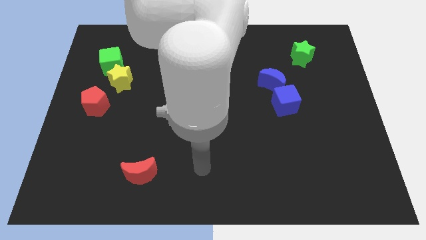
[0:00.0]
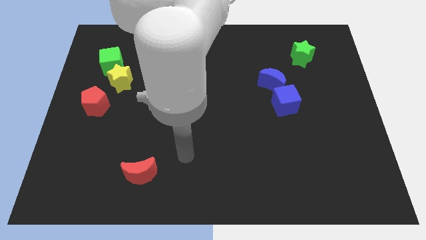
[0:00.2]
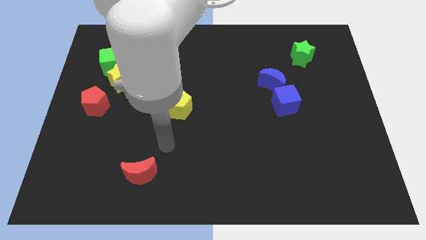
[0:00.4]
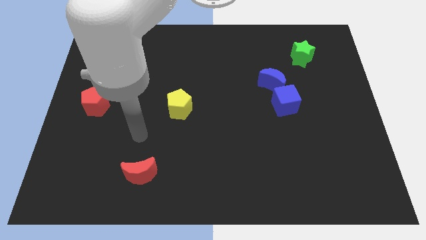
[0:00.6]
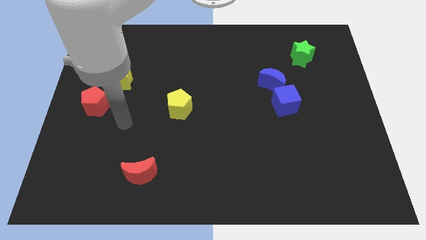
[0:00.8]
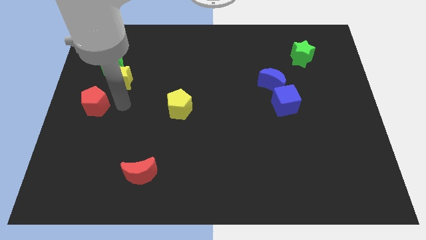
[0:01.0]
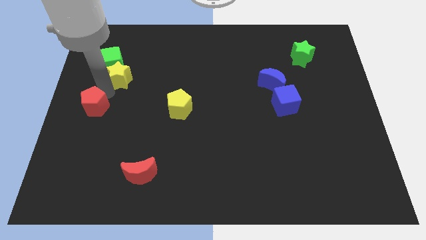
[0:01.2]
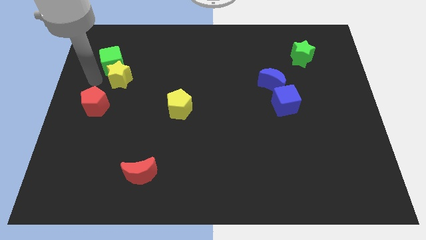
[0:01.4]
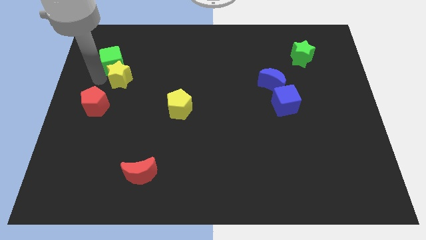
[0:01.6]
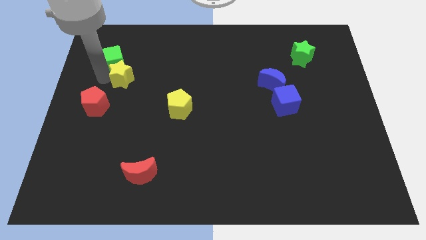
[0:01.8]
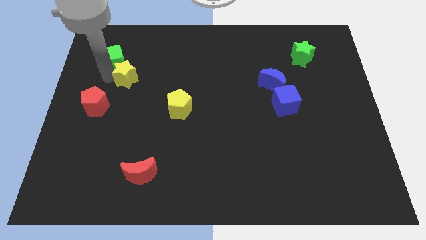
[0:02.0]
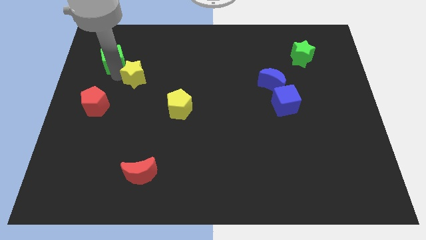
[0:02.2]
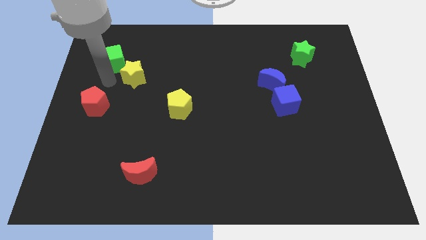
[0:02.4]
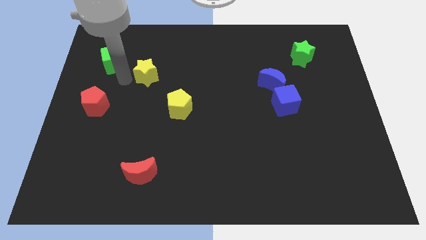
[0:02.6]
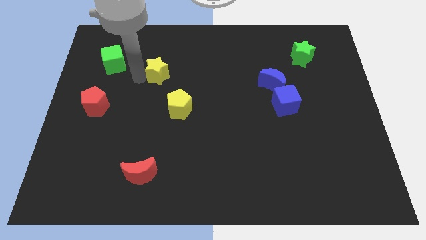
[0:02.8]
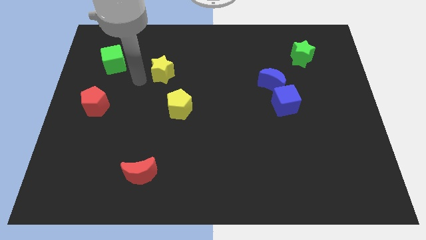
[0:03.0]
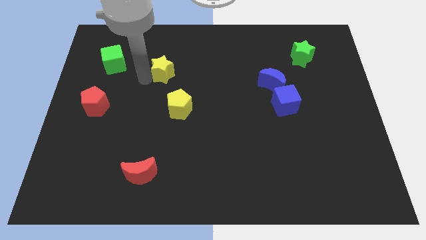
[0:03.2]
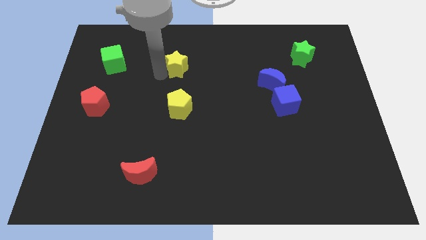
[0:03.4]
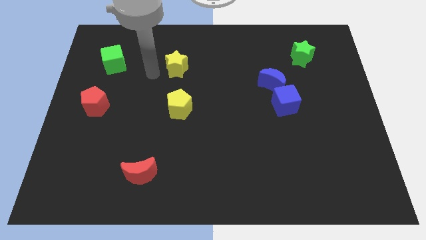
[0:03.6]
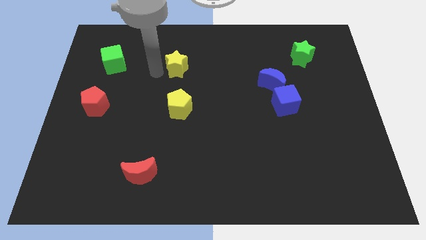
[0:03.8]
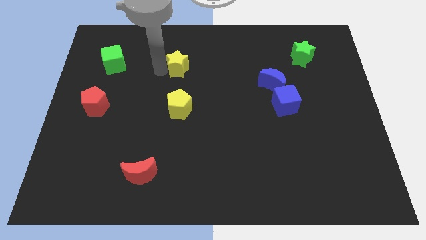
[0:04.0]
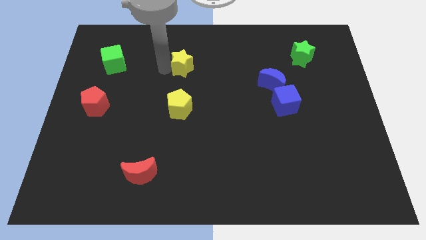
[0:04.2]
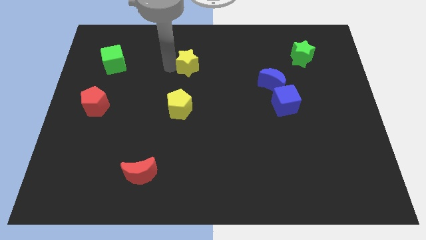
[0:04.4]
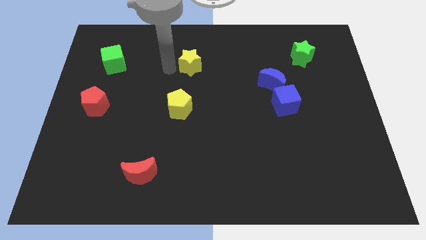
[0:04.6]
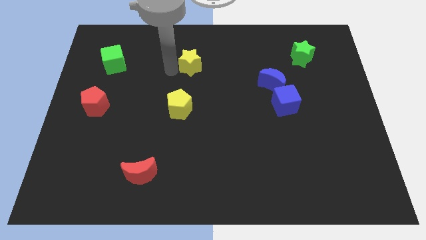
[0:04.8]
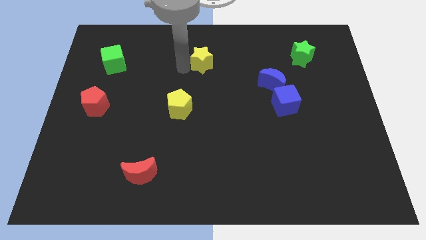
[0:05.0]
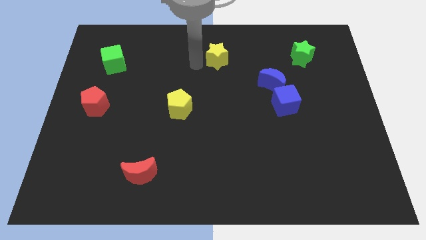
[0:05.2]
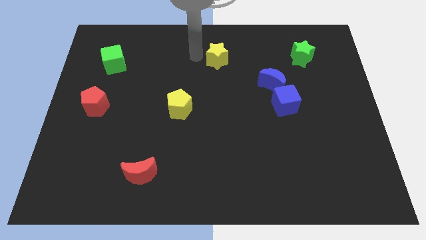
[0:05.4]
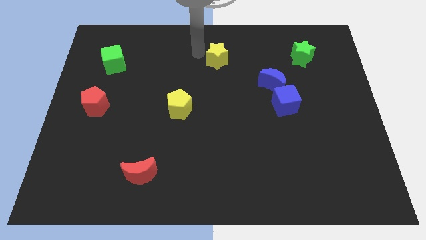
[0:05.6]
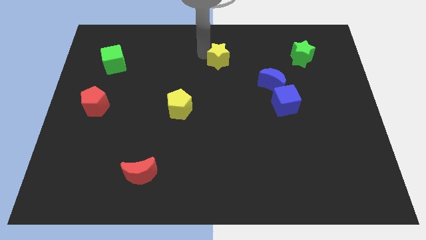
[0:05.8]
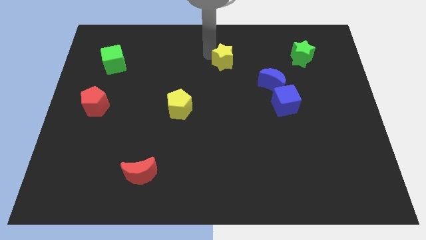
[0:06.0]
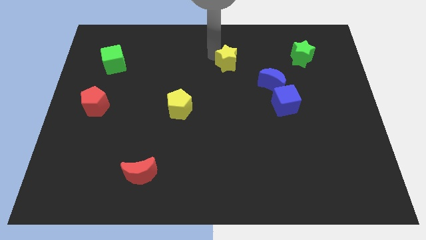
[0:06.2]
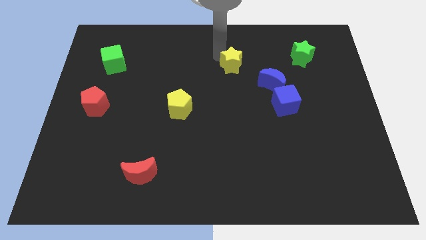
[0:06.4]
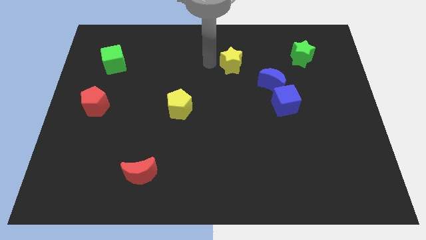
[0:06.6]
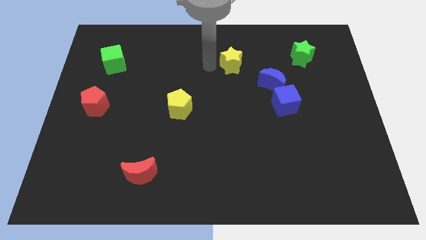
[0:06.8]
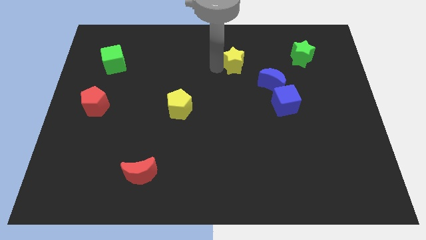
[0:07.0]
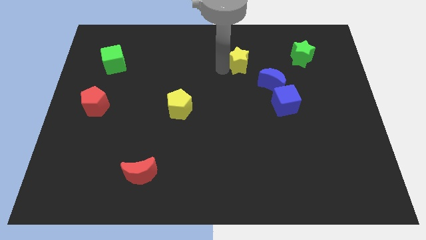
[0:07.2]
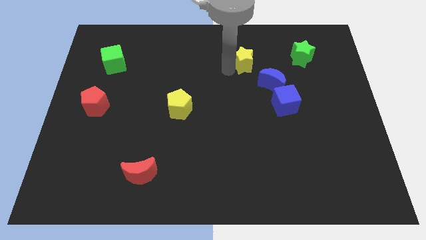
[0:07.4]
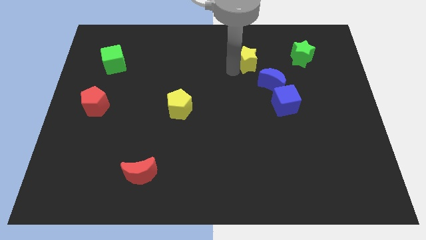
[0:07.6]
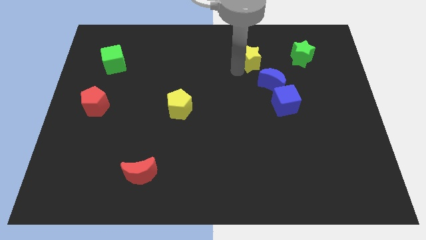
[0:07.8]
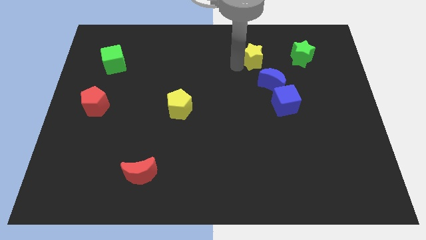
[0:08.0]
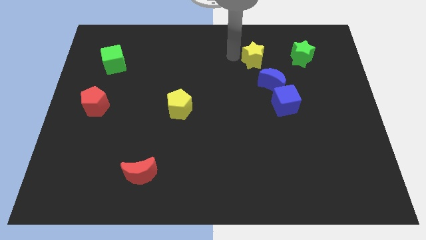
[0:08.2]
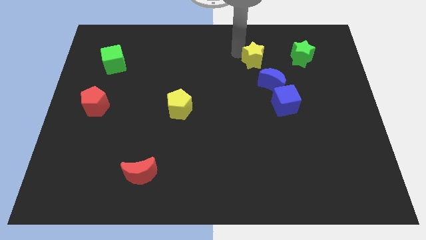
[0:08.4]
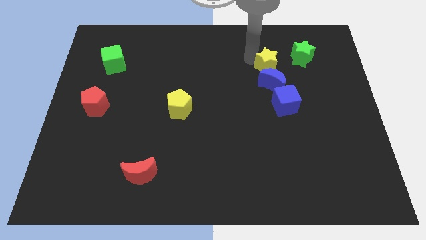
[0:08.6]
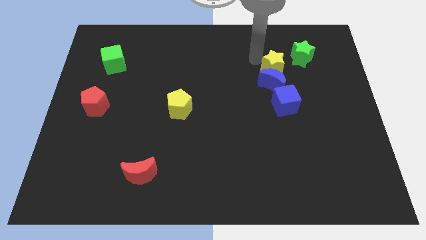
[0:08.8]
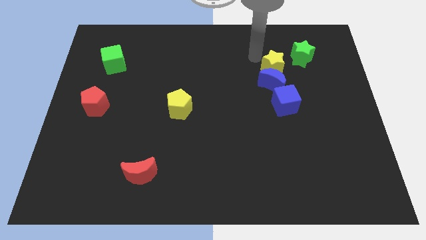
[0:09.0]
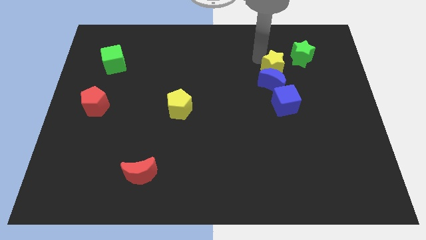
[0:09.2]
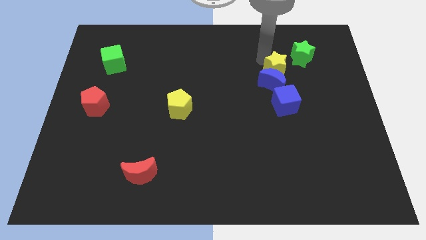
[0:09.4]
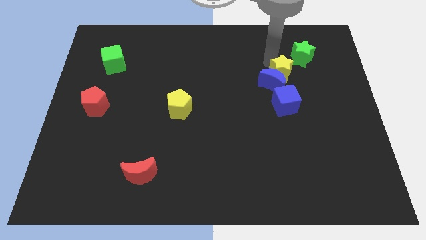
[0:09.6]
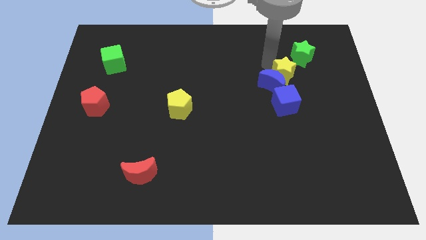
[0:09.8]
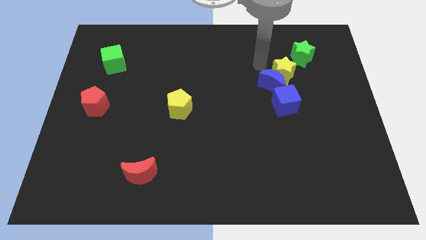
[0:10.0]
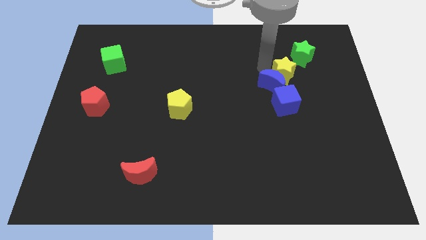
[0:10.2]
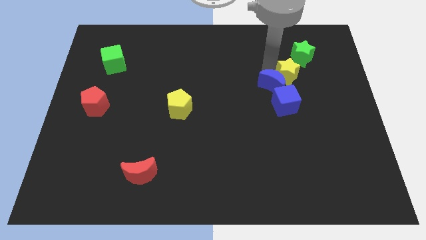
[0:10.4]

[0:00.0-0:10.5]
move the yellow star to the bottom of the green star

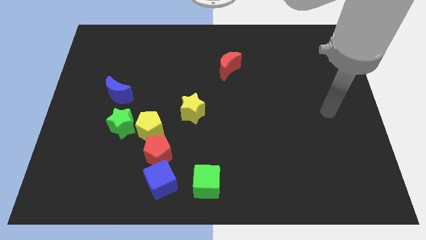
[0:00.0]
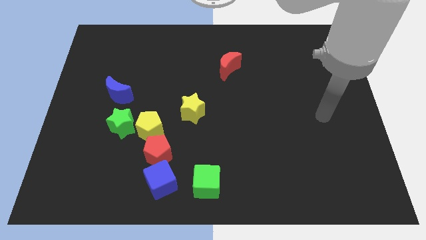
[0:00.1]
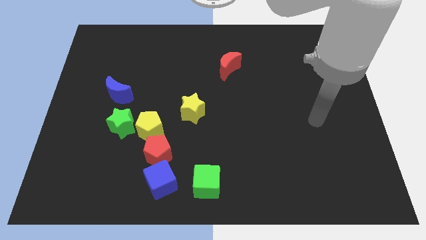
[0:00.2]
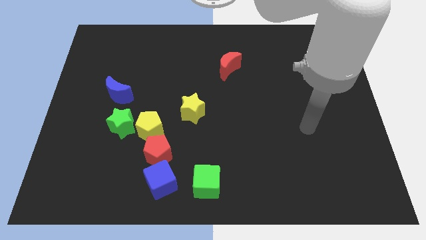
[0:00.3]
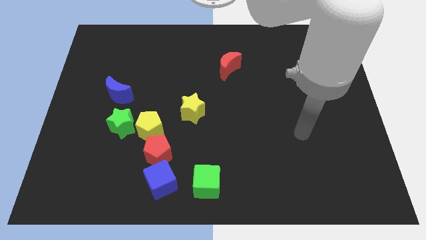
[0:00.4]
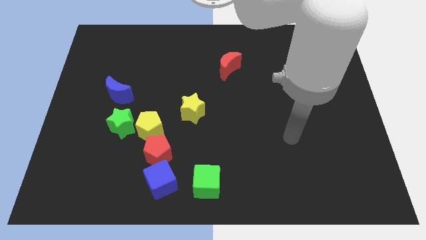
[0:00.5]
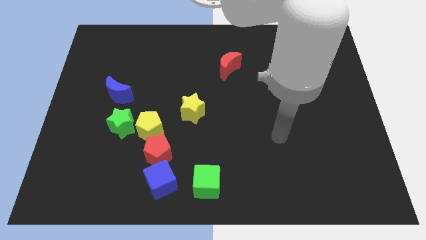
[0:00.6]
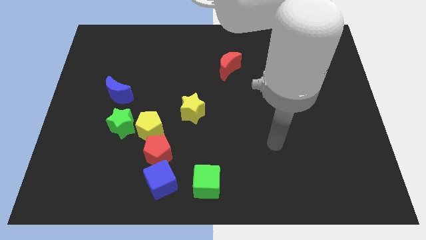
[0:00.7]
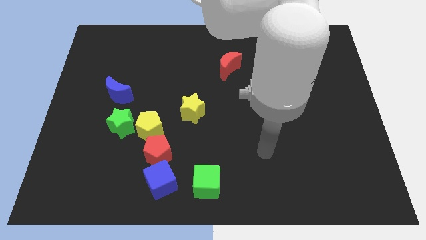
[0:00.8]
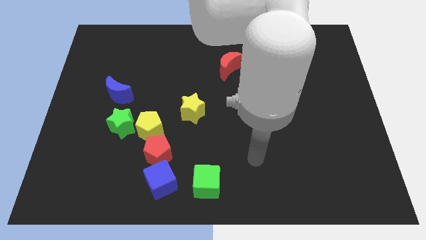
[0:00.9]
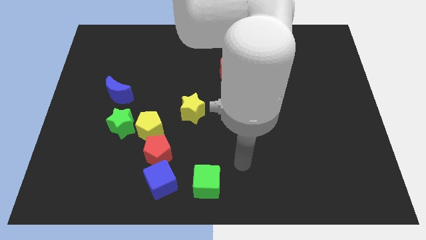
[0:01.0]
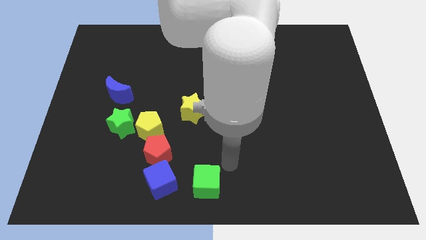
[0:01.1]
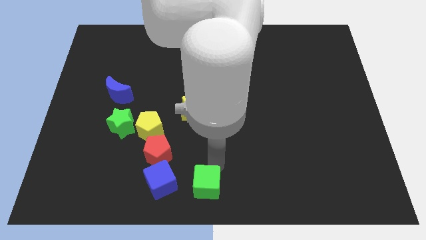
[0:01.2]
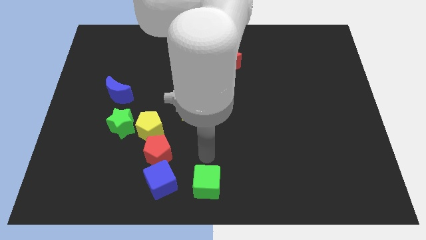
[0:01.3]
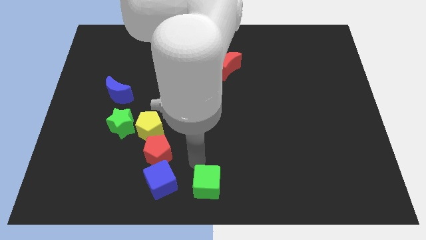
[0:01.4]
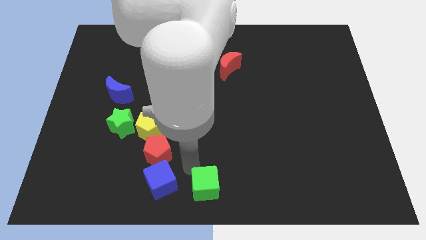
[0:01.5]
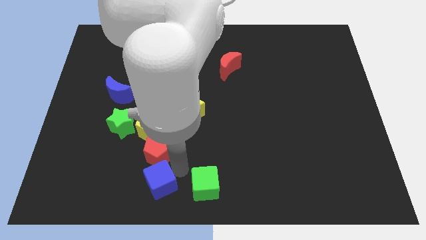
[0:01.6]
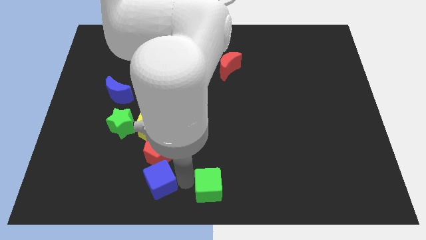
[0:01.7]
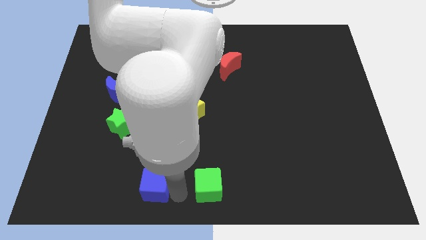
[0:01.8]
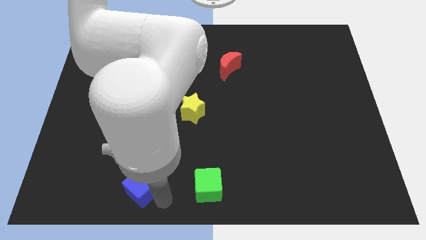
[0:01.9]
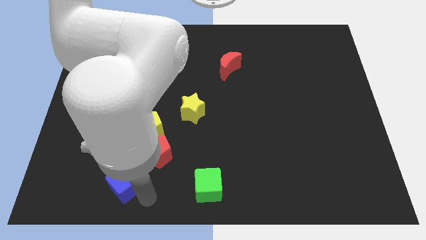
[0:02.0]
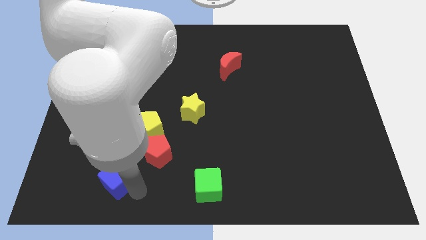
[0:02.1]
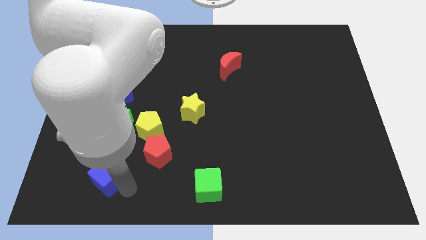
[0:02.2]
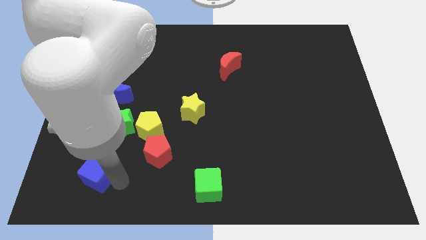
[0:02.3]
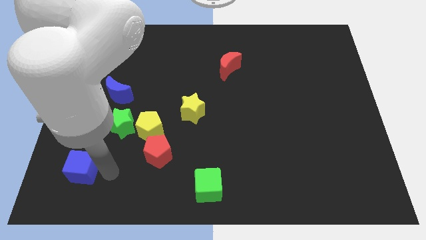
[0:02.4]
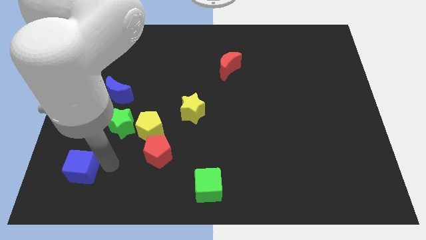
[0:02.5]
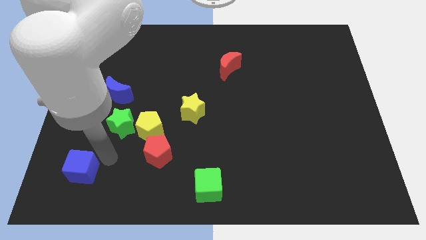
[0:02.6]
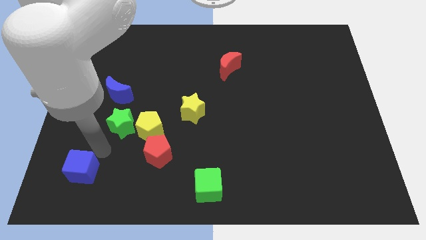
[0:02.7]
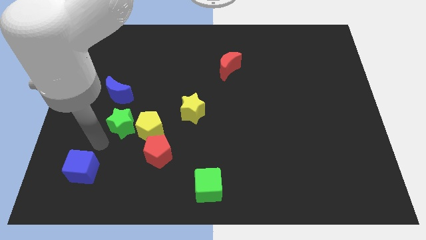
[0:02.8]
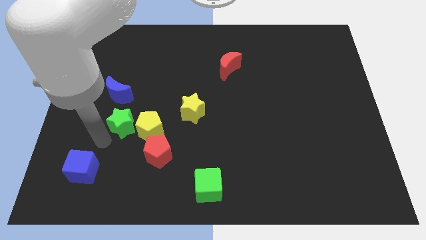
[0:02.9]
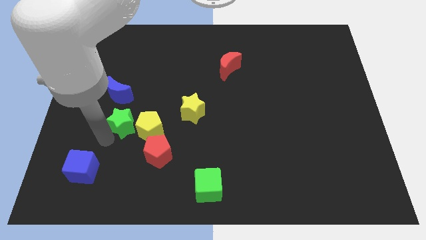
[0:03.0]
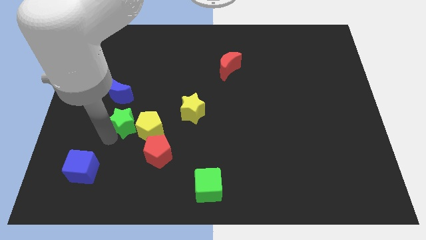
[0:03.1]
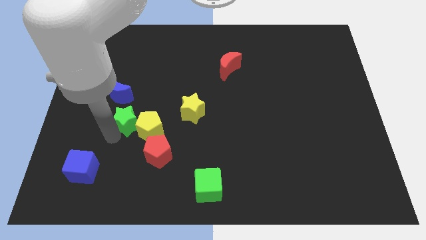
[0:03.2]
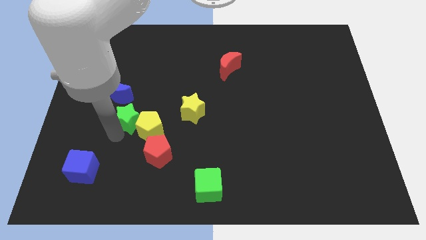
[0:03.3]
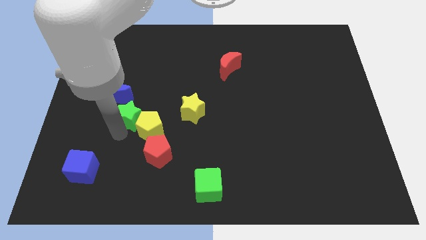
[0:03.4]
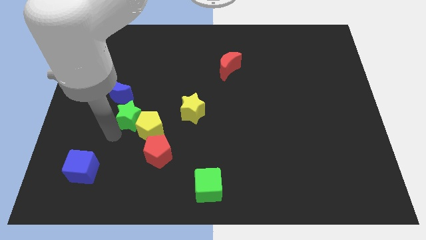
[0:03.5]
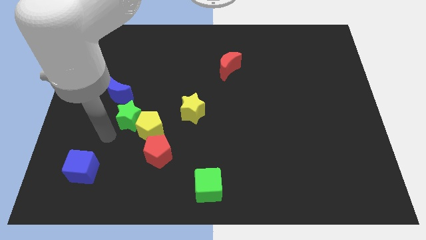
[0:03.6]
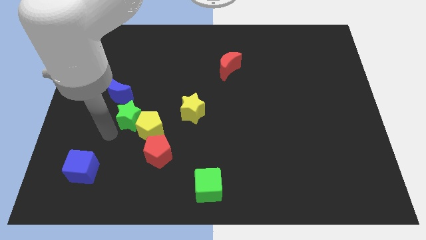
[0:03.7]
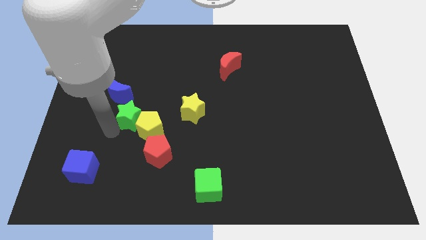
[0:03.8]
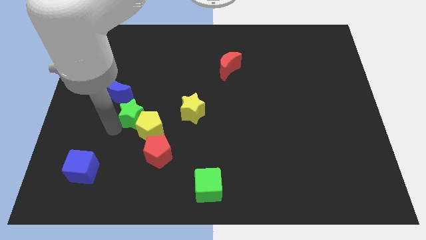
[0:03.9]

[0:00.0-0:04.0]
put the green star to the top of the yellow pentagon
